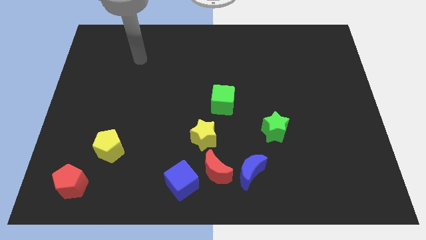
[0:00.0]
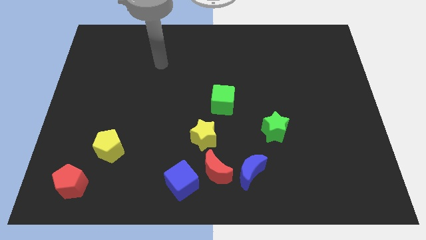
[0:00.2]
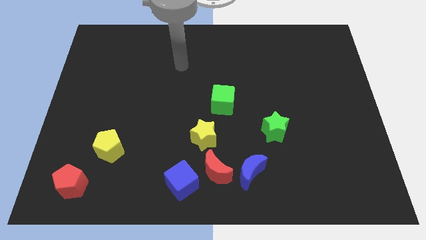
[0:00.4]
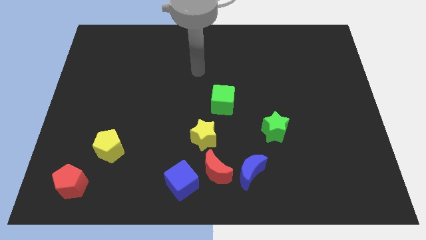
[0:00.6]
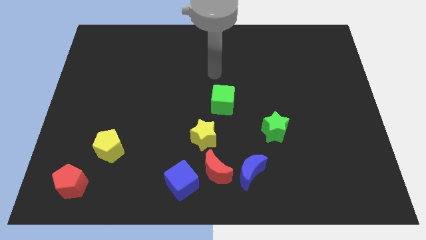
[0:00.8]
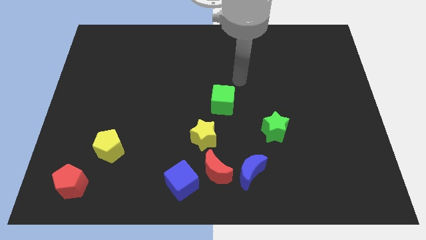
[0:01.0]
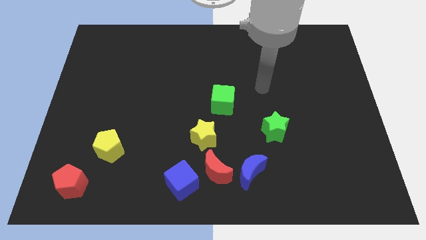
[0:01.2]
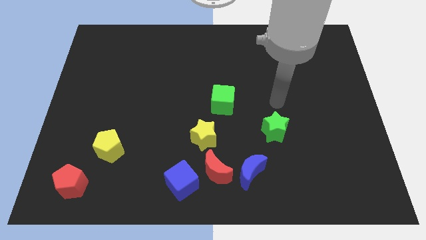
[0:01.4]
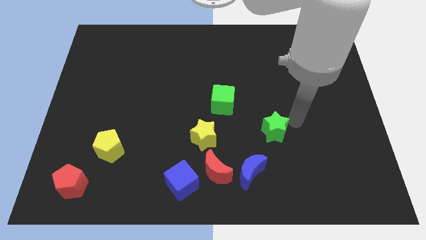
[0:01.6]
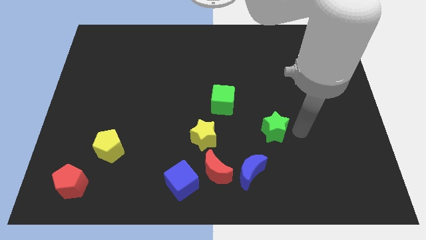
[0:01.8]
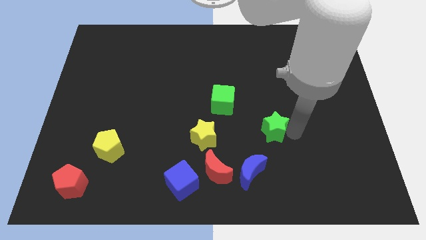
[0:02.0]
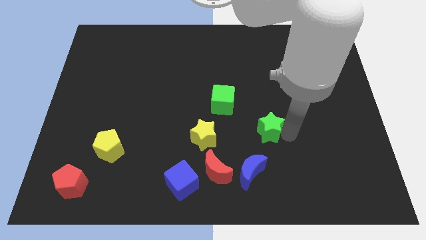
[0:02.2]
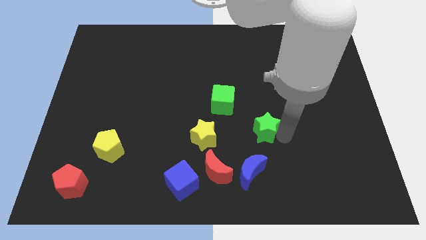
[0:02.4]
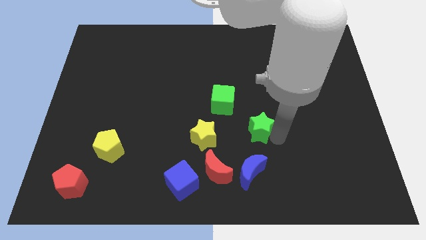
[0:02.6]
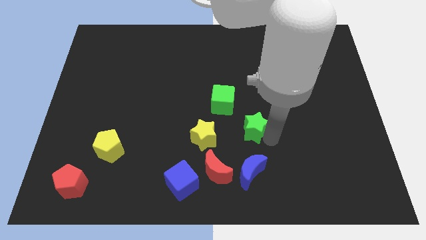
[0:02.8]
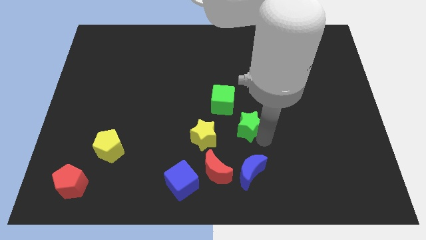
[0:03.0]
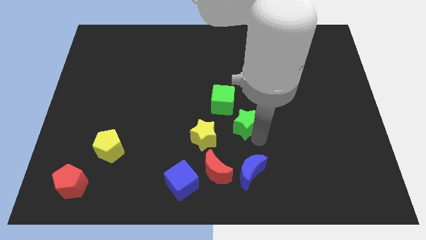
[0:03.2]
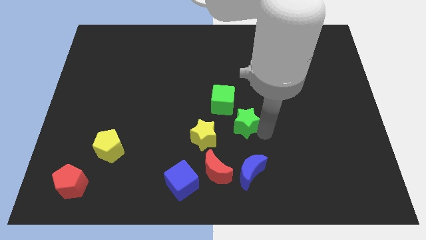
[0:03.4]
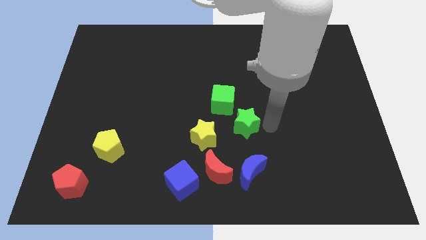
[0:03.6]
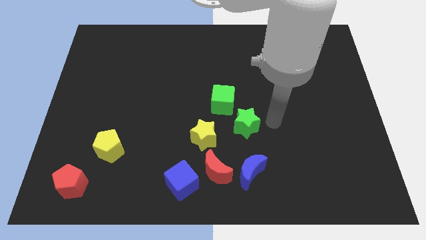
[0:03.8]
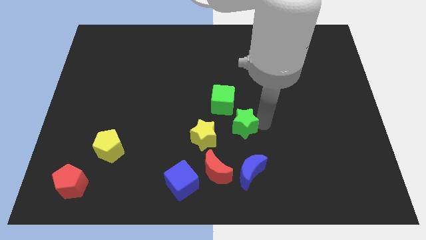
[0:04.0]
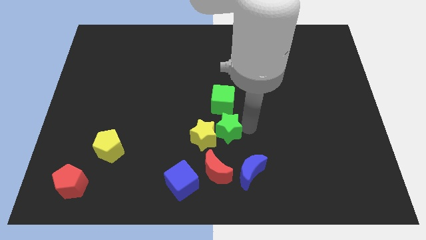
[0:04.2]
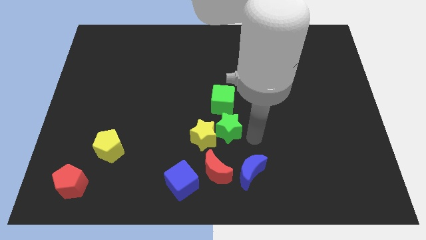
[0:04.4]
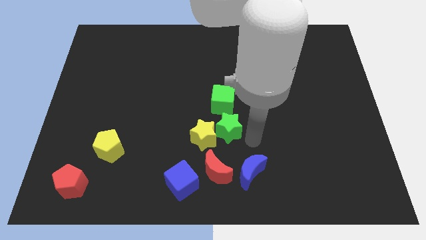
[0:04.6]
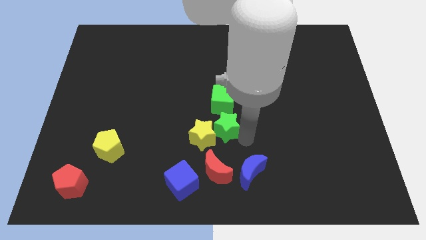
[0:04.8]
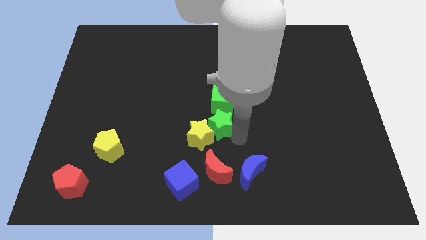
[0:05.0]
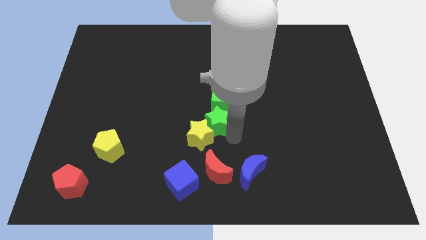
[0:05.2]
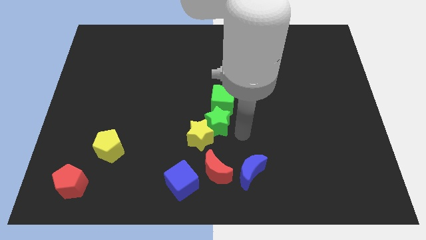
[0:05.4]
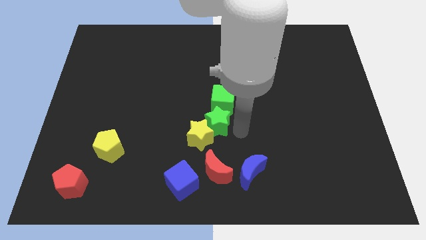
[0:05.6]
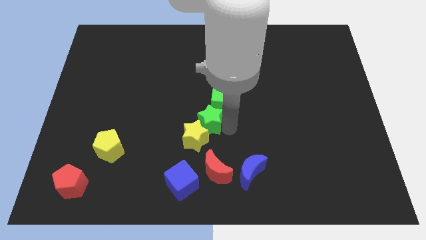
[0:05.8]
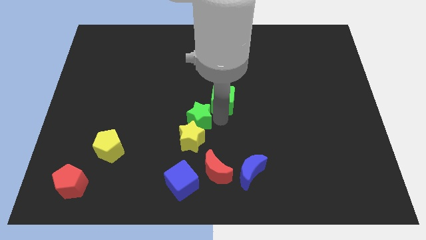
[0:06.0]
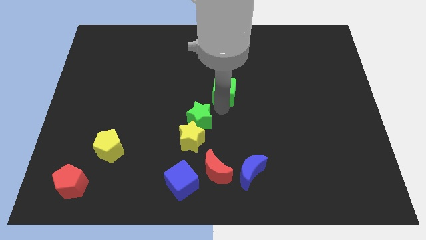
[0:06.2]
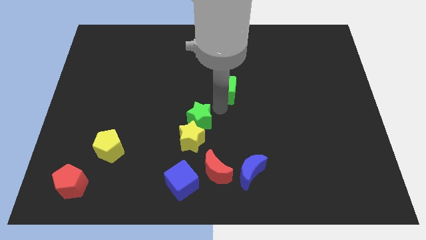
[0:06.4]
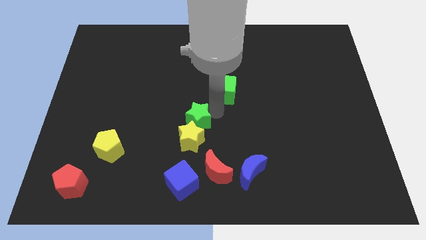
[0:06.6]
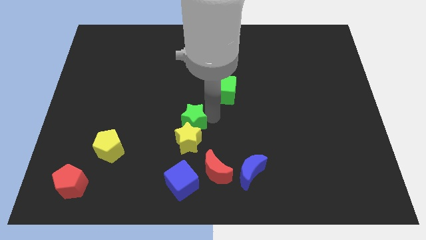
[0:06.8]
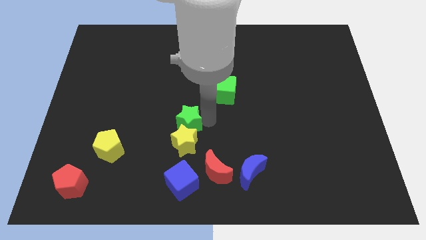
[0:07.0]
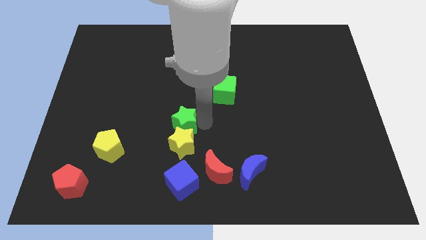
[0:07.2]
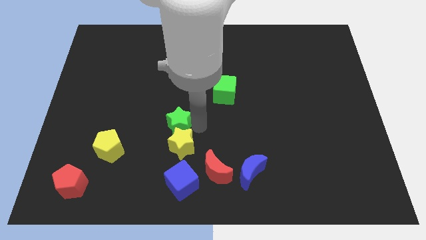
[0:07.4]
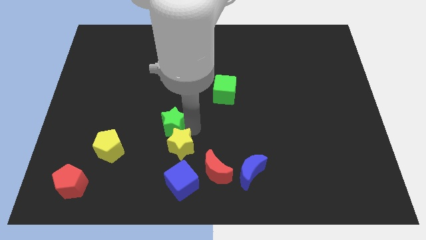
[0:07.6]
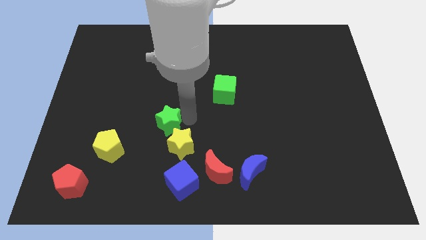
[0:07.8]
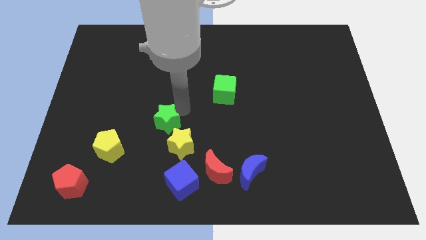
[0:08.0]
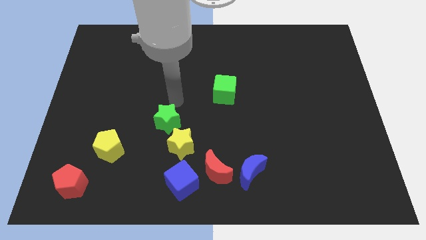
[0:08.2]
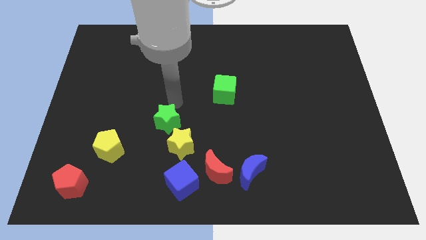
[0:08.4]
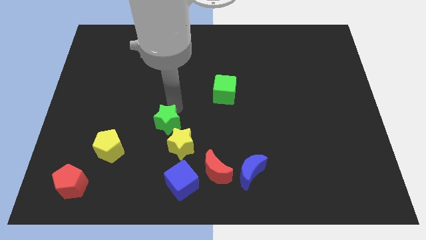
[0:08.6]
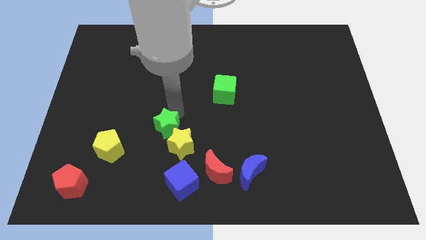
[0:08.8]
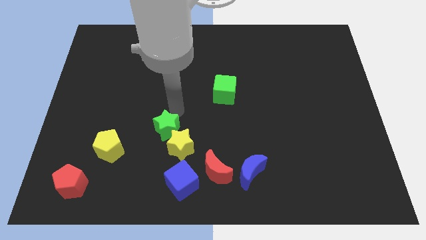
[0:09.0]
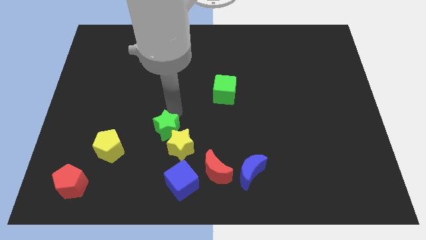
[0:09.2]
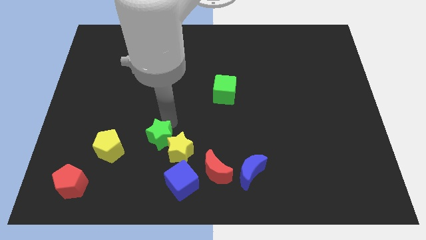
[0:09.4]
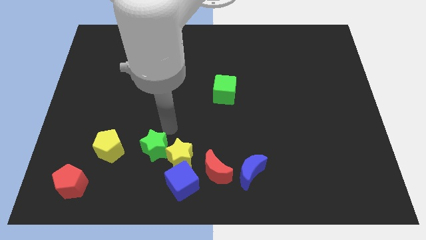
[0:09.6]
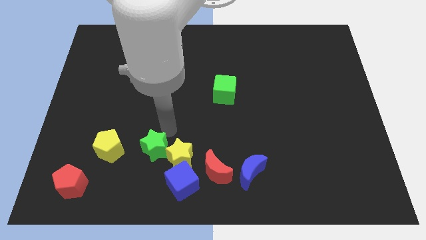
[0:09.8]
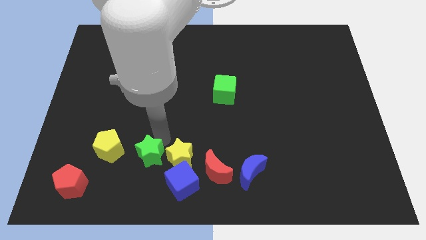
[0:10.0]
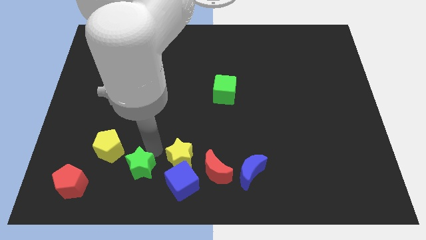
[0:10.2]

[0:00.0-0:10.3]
move the green star to the left of the blue cube

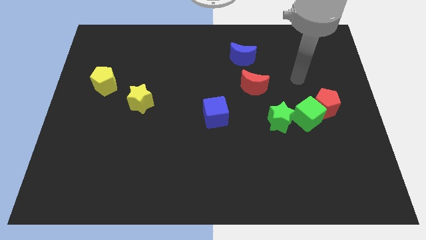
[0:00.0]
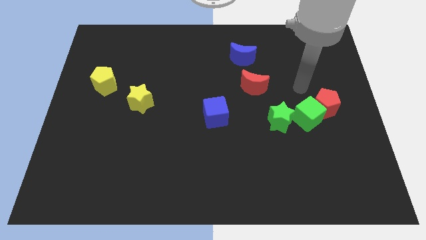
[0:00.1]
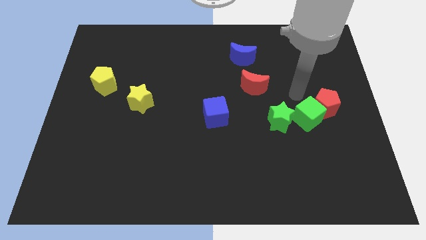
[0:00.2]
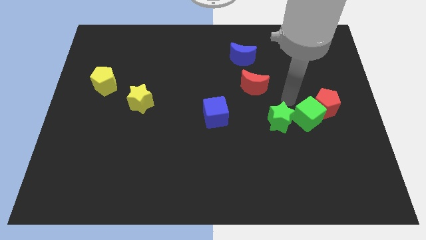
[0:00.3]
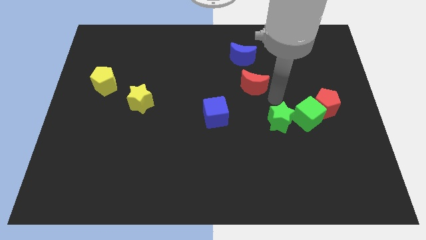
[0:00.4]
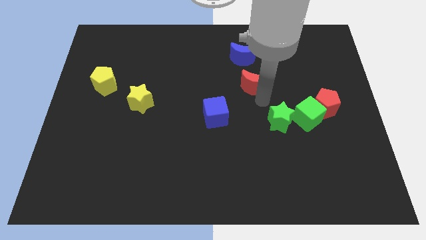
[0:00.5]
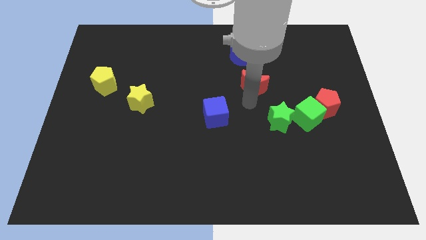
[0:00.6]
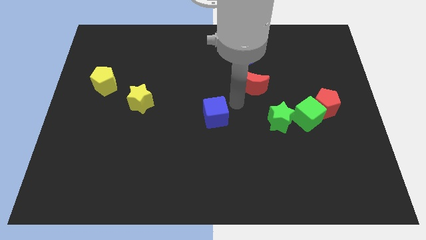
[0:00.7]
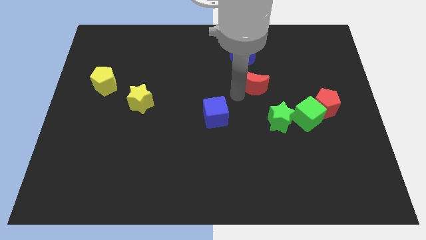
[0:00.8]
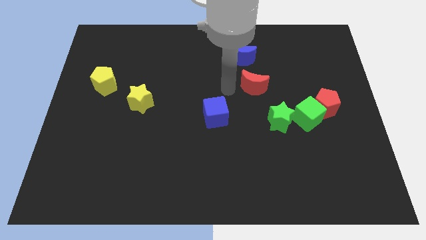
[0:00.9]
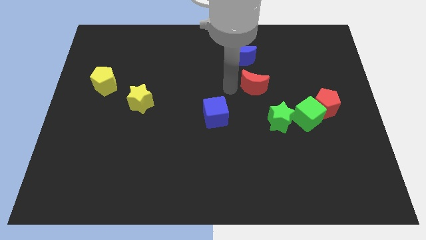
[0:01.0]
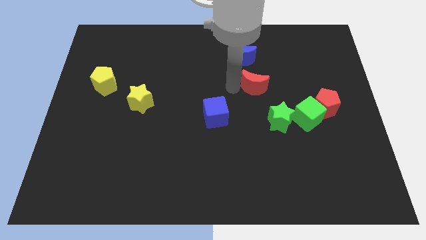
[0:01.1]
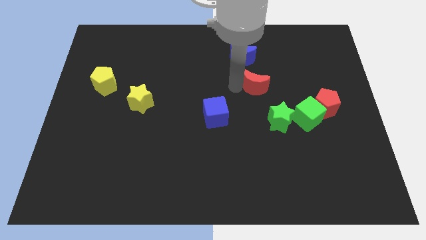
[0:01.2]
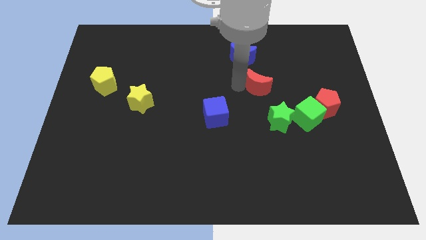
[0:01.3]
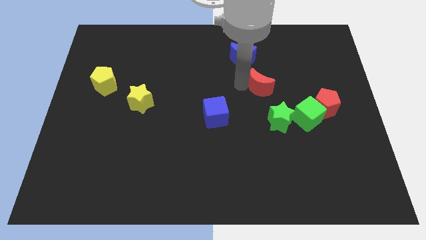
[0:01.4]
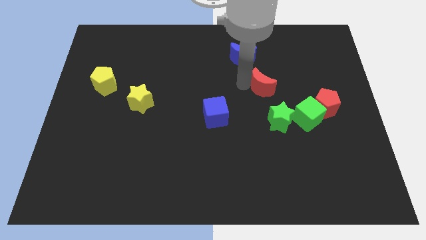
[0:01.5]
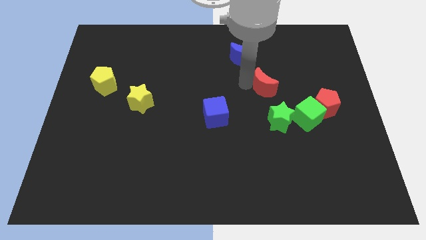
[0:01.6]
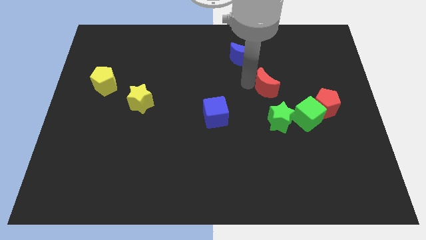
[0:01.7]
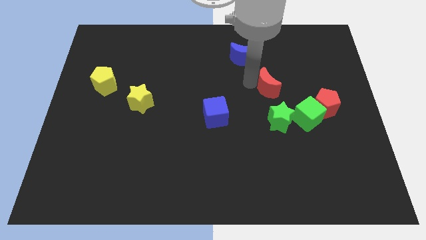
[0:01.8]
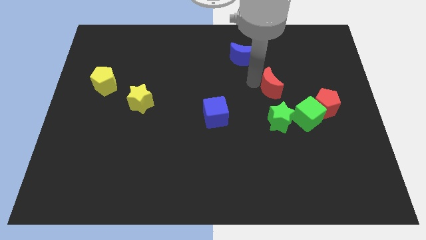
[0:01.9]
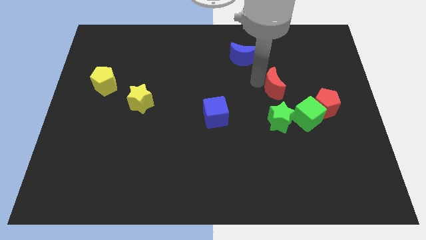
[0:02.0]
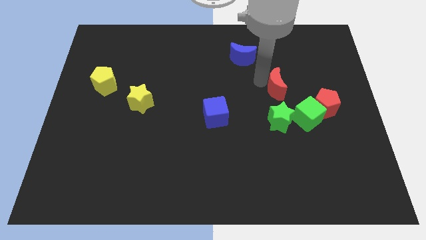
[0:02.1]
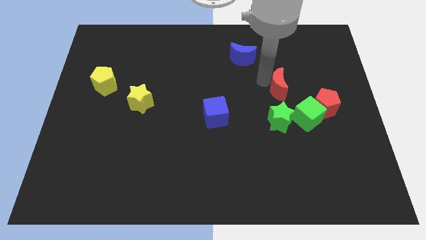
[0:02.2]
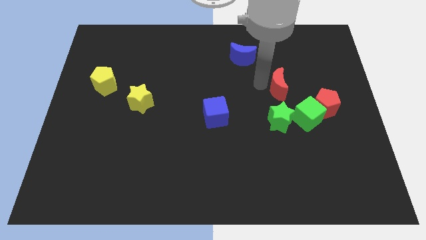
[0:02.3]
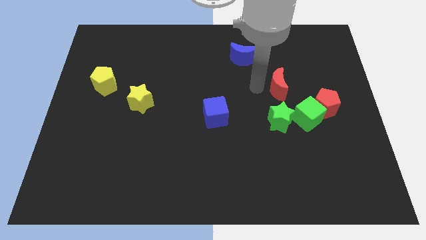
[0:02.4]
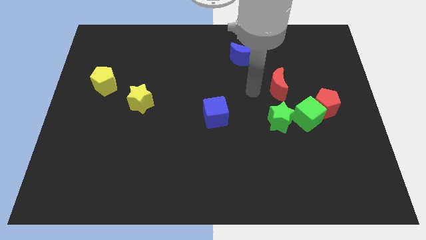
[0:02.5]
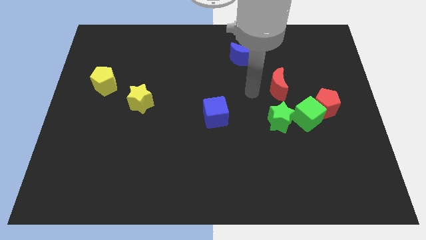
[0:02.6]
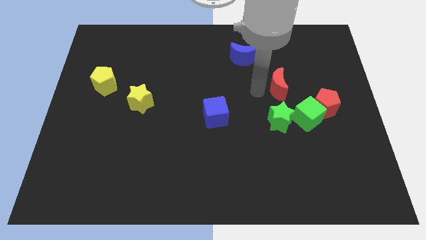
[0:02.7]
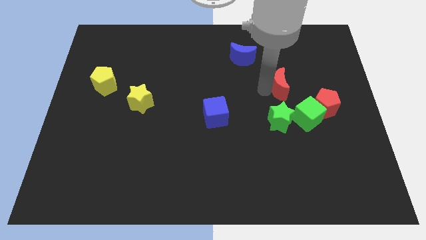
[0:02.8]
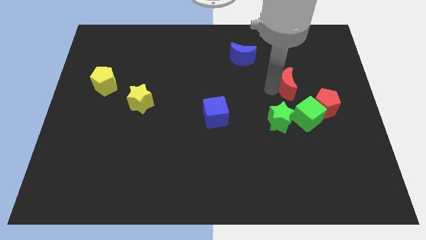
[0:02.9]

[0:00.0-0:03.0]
move the red moon to the top side of the green cube
